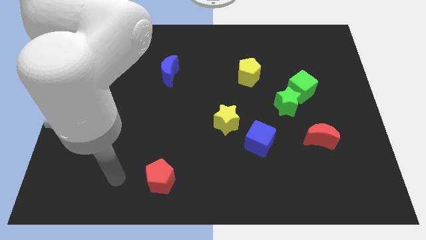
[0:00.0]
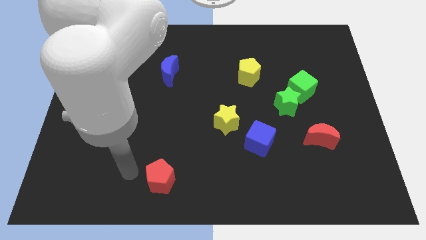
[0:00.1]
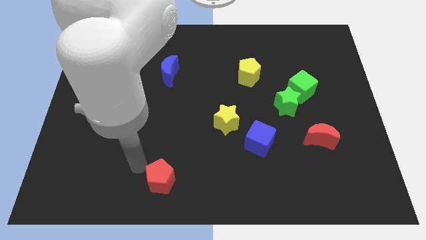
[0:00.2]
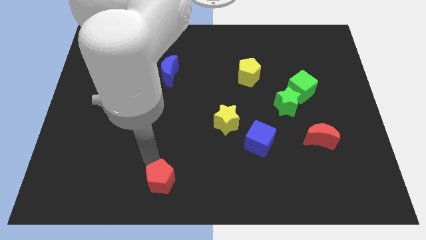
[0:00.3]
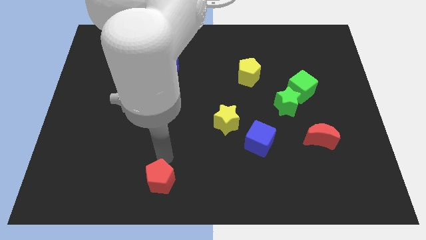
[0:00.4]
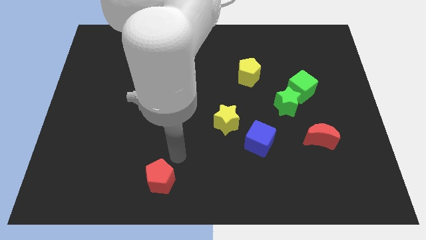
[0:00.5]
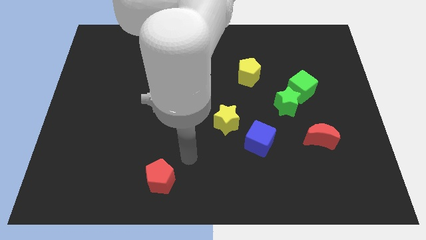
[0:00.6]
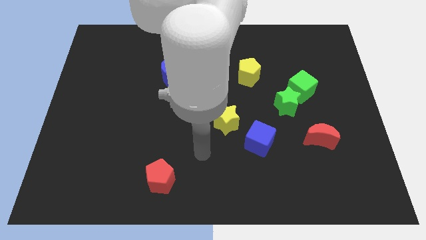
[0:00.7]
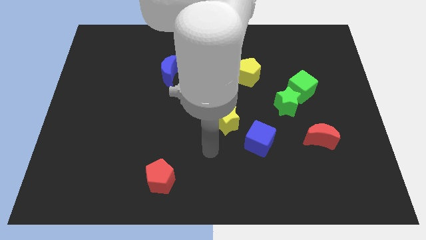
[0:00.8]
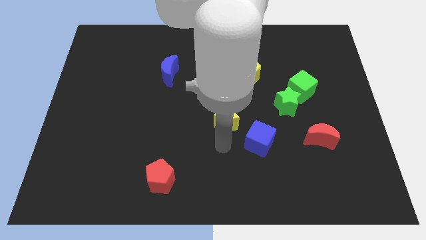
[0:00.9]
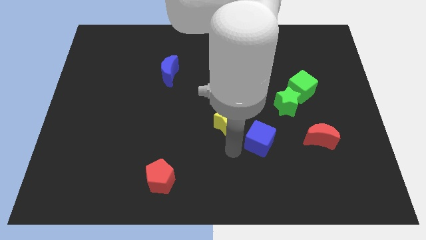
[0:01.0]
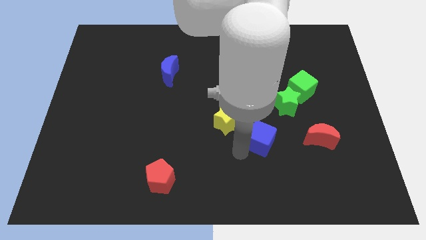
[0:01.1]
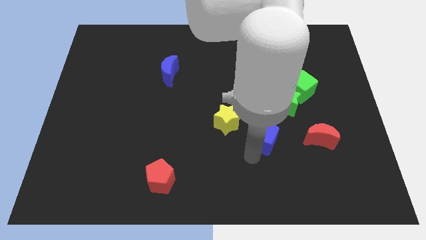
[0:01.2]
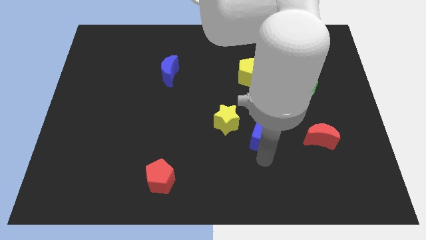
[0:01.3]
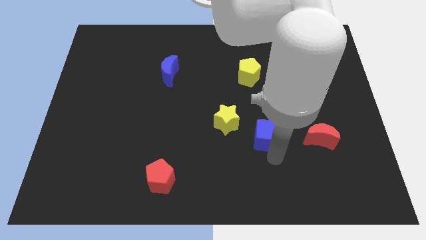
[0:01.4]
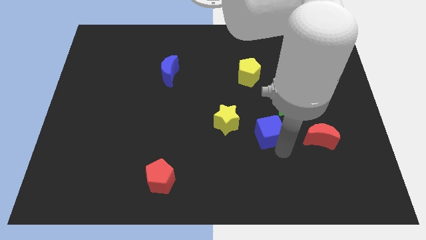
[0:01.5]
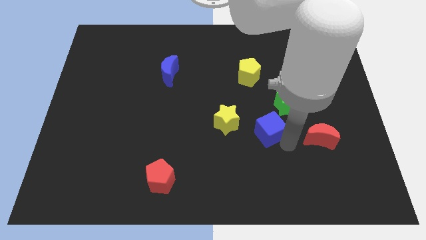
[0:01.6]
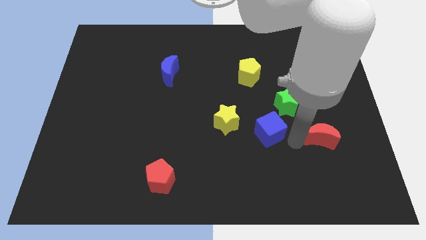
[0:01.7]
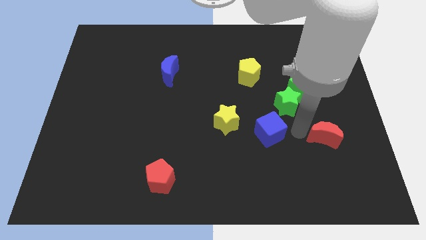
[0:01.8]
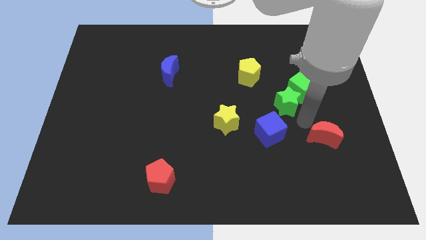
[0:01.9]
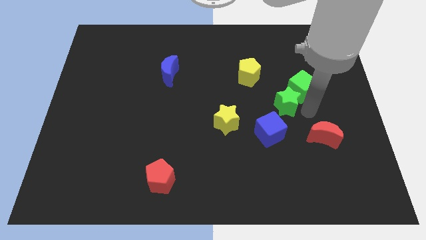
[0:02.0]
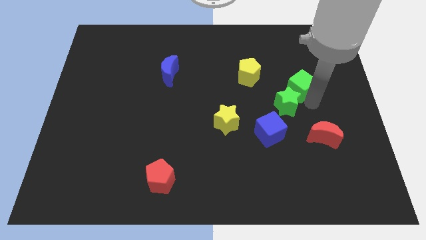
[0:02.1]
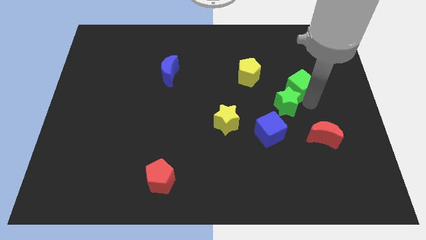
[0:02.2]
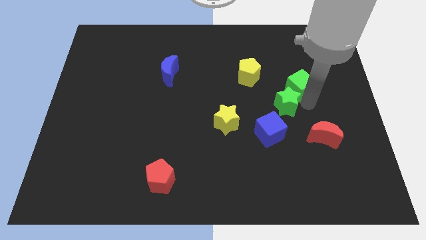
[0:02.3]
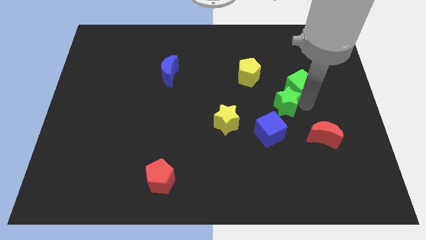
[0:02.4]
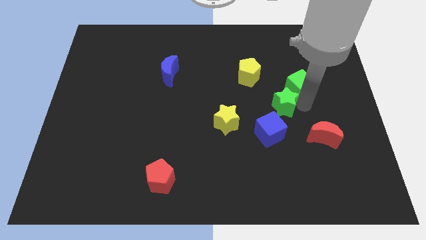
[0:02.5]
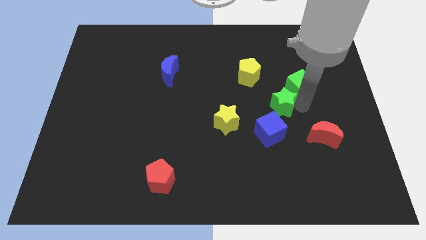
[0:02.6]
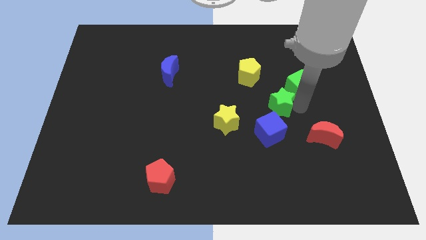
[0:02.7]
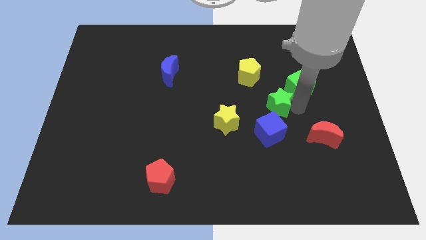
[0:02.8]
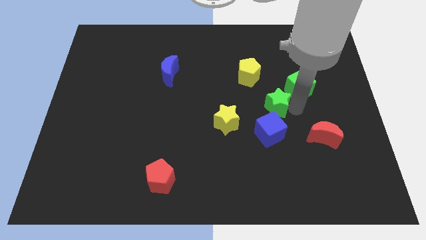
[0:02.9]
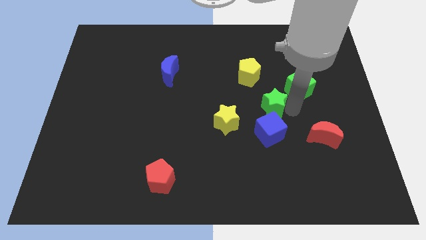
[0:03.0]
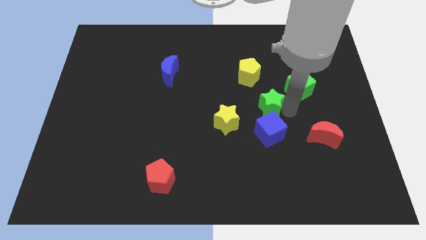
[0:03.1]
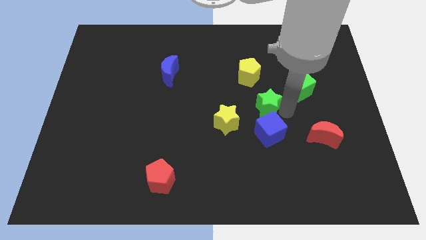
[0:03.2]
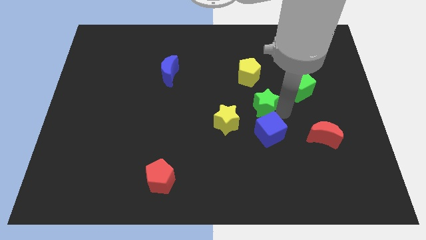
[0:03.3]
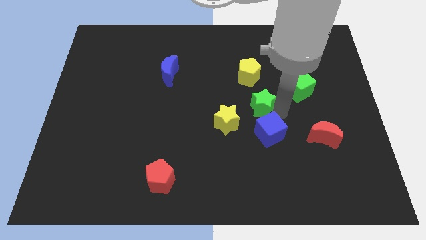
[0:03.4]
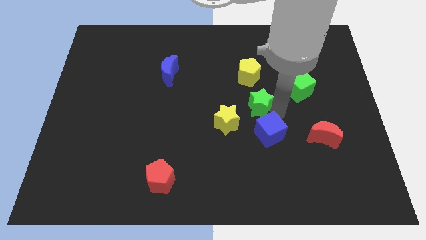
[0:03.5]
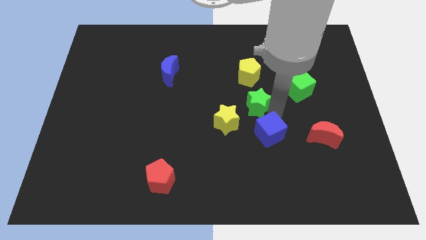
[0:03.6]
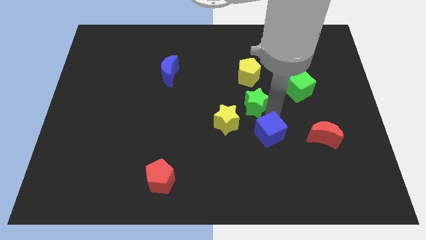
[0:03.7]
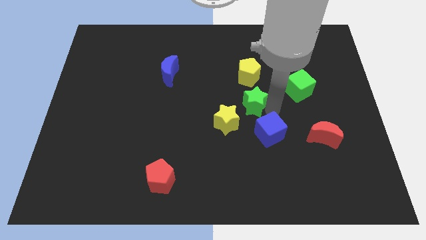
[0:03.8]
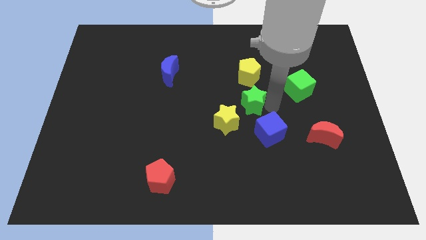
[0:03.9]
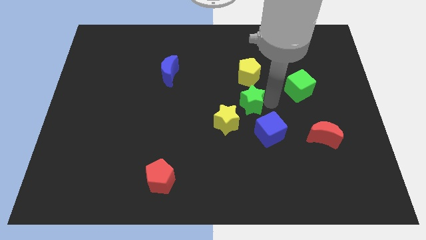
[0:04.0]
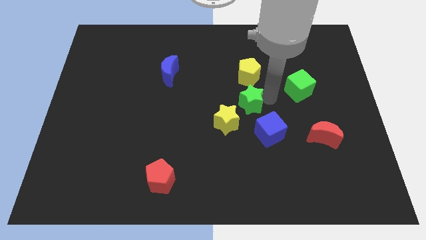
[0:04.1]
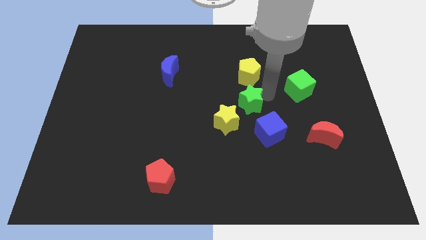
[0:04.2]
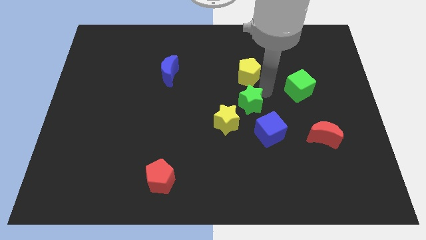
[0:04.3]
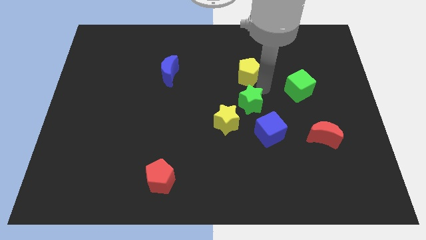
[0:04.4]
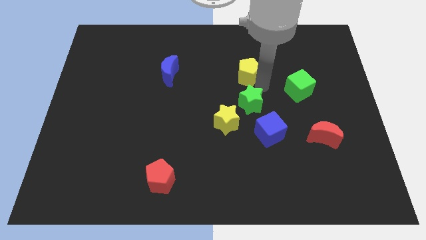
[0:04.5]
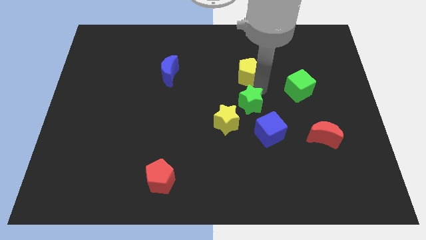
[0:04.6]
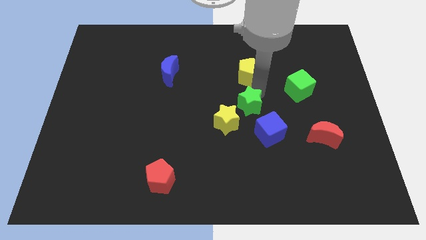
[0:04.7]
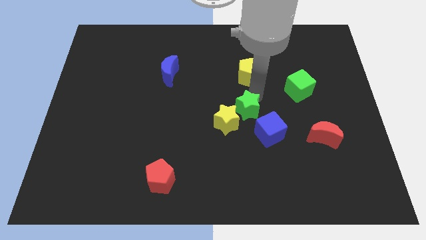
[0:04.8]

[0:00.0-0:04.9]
move the green star next to the yellow star

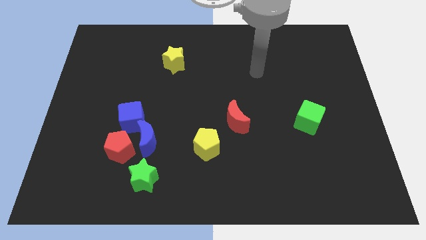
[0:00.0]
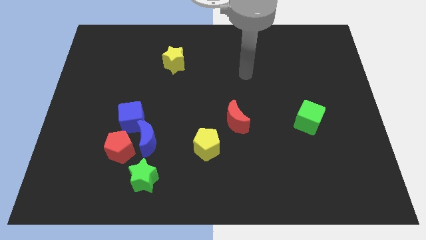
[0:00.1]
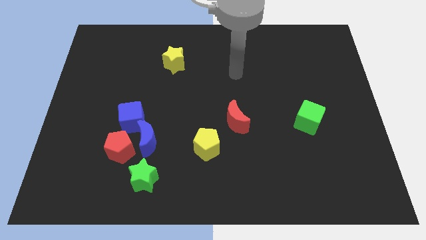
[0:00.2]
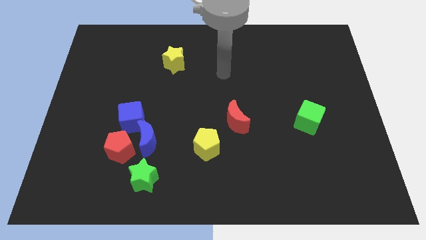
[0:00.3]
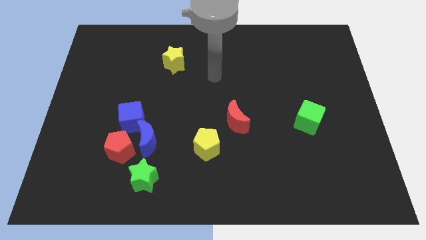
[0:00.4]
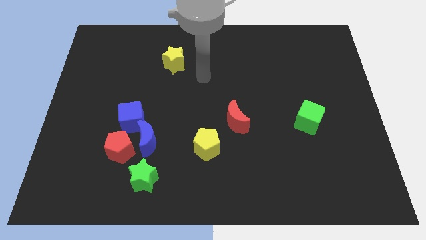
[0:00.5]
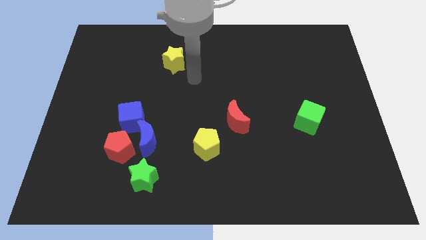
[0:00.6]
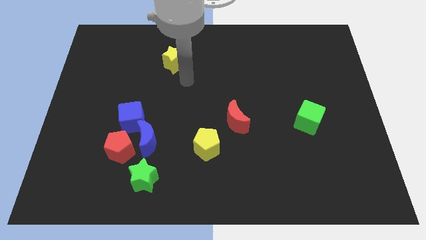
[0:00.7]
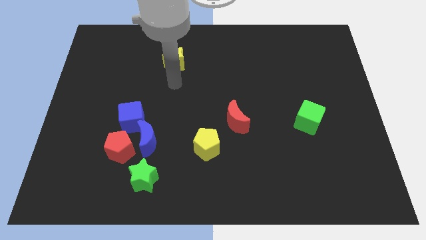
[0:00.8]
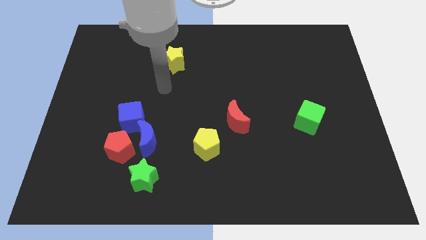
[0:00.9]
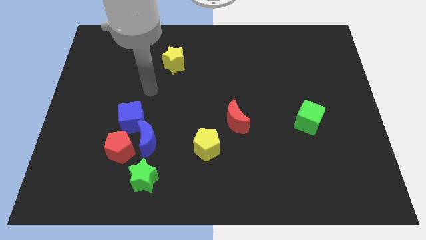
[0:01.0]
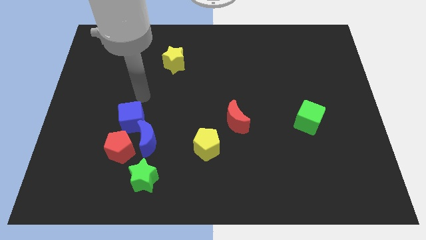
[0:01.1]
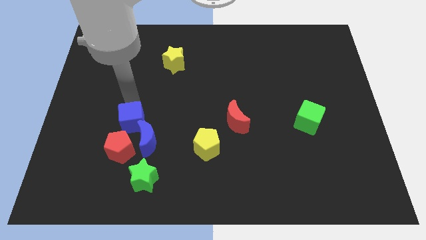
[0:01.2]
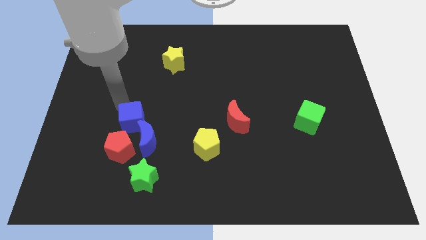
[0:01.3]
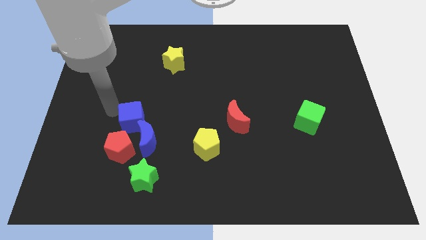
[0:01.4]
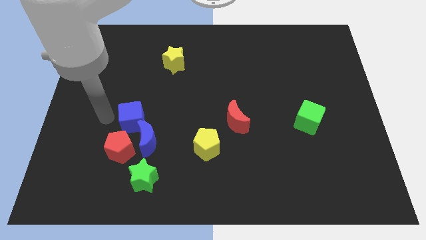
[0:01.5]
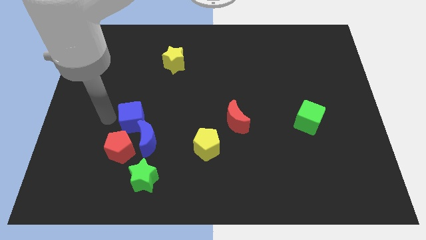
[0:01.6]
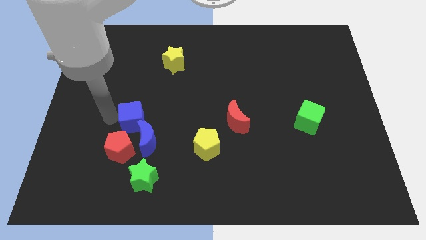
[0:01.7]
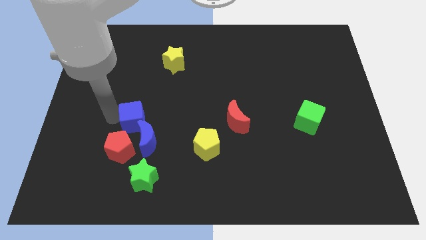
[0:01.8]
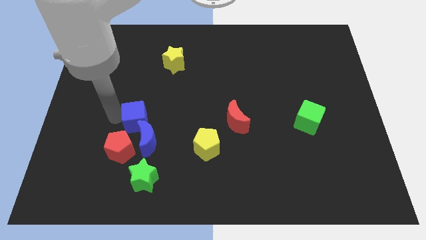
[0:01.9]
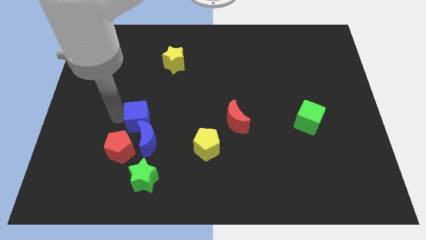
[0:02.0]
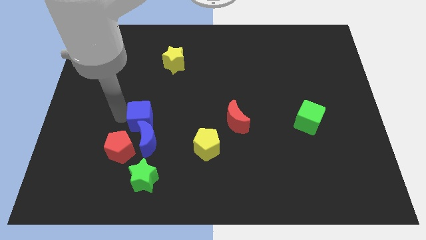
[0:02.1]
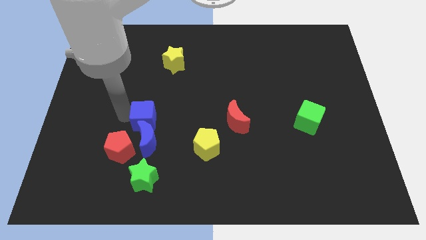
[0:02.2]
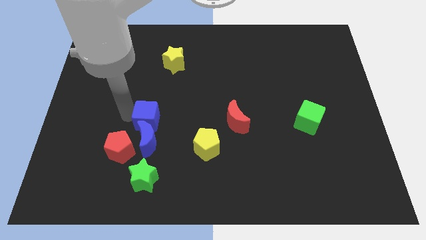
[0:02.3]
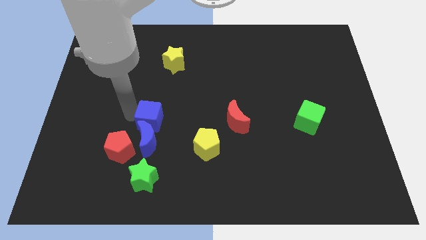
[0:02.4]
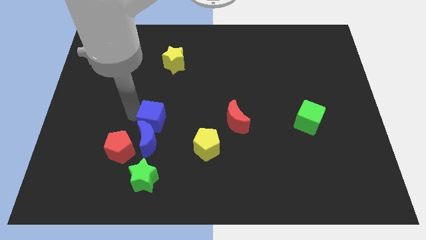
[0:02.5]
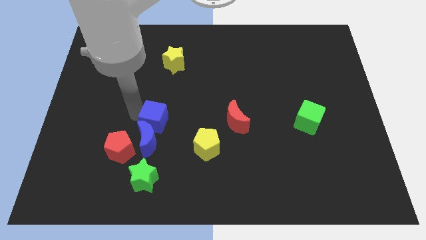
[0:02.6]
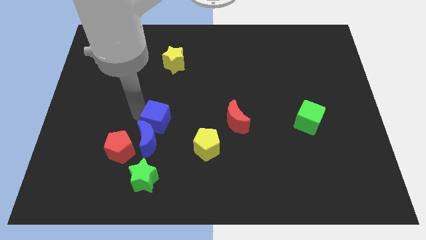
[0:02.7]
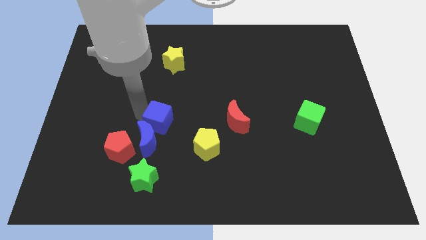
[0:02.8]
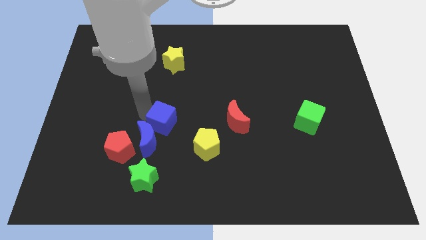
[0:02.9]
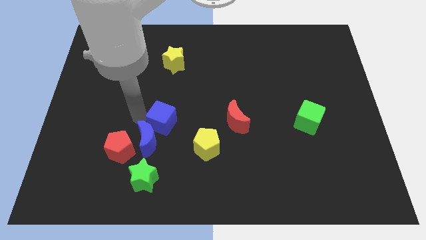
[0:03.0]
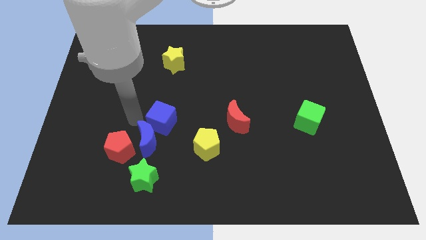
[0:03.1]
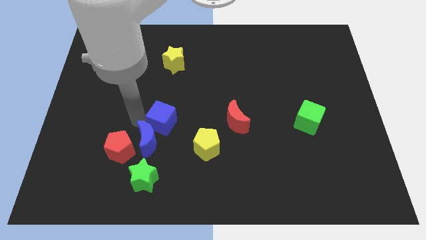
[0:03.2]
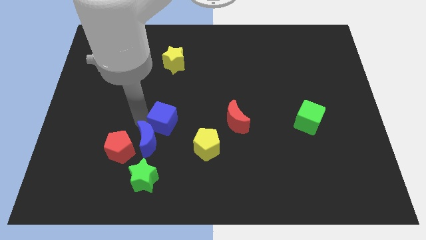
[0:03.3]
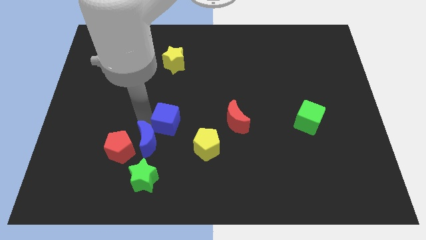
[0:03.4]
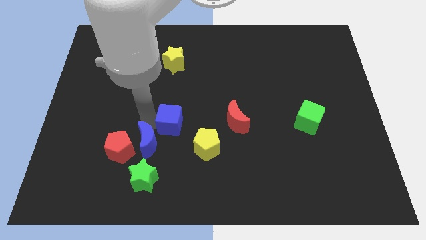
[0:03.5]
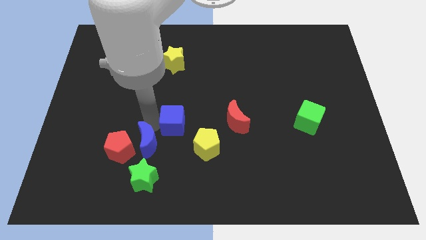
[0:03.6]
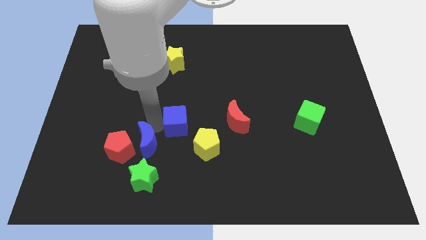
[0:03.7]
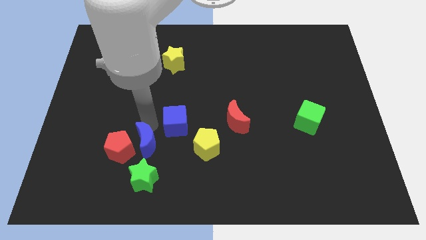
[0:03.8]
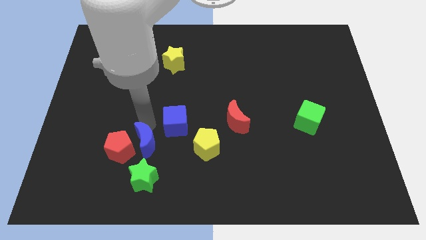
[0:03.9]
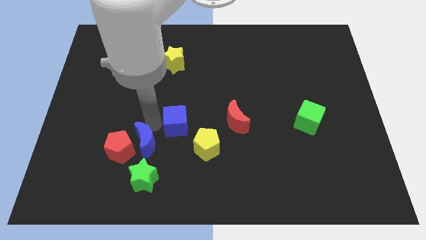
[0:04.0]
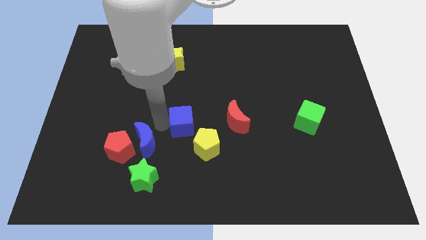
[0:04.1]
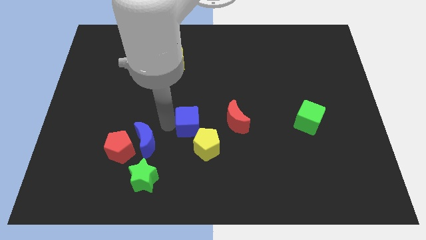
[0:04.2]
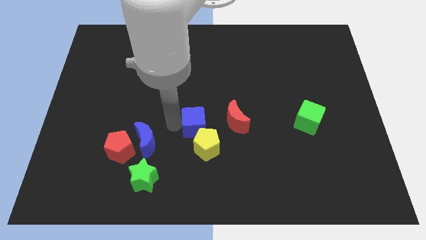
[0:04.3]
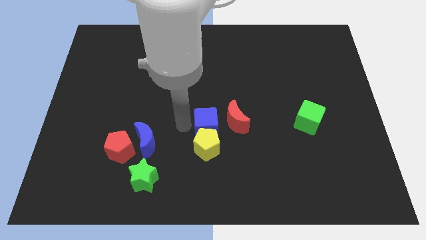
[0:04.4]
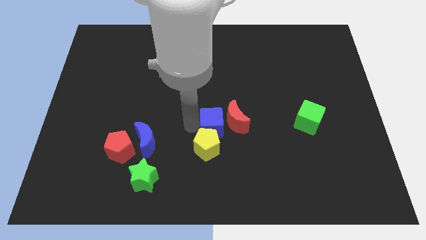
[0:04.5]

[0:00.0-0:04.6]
move the blue cube next to the red moon
